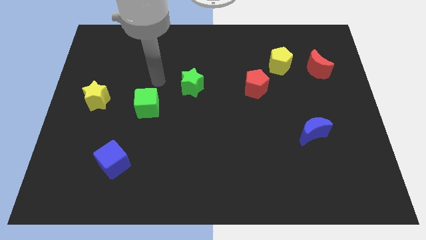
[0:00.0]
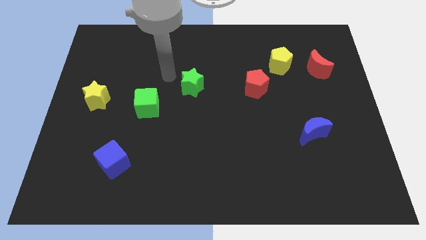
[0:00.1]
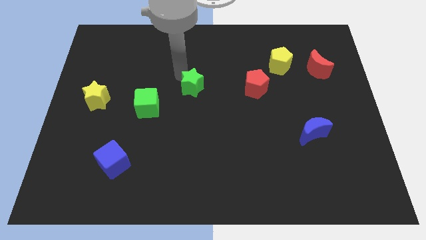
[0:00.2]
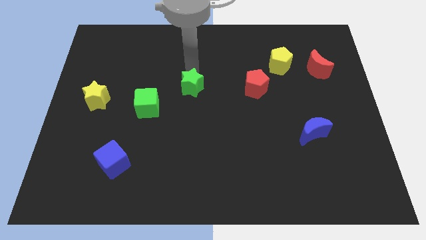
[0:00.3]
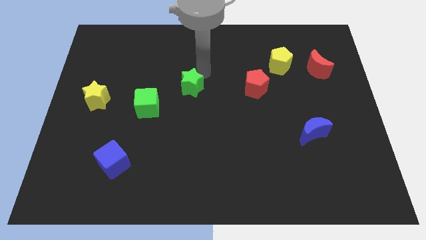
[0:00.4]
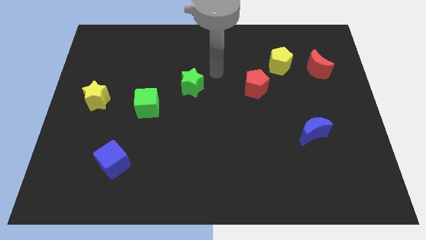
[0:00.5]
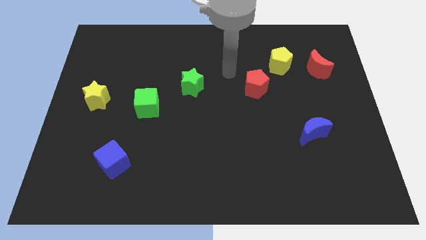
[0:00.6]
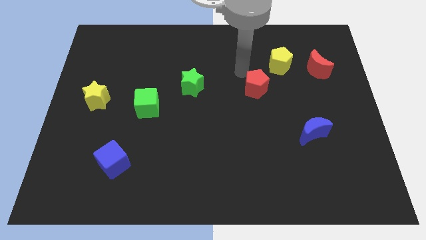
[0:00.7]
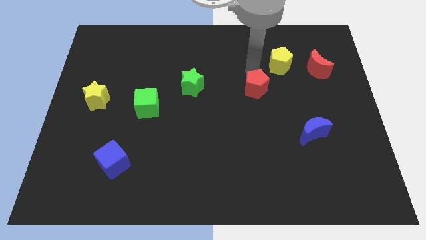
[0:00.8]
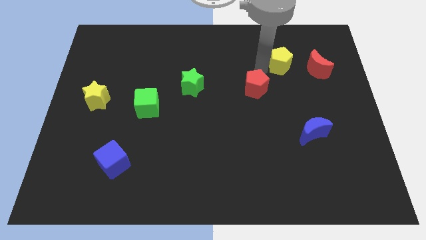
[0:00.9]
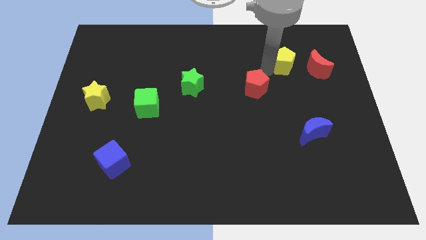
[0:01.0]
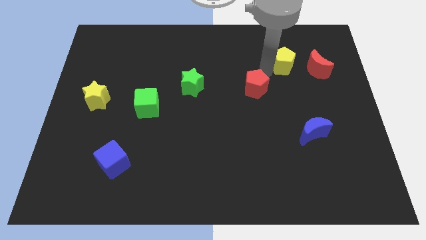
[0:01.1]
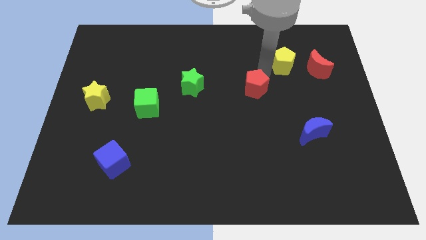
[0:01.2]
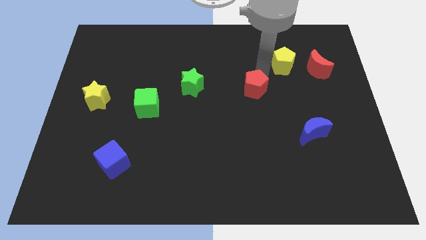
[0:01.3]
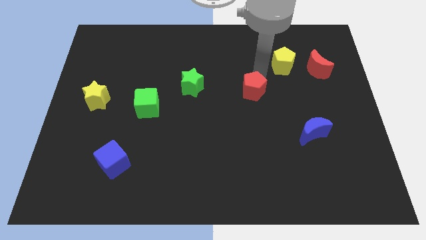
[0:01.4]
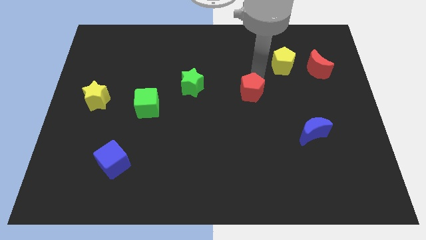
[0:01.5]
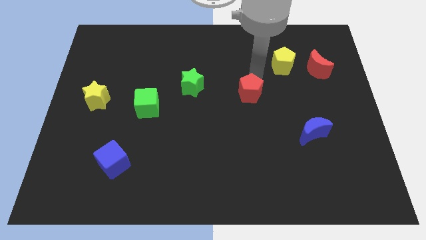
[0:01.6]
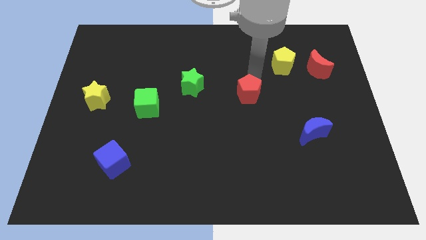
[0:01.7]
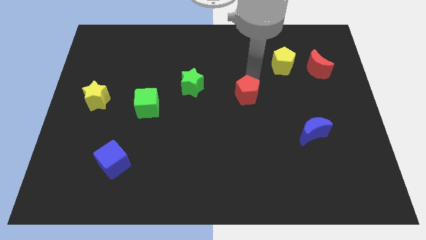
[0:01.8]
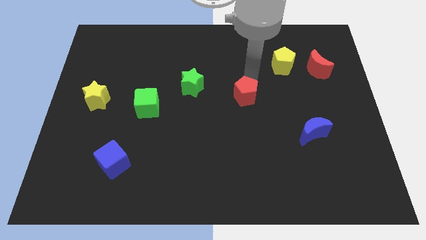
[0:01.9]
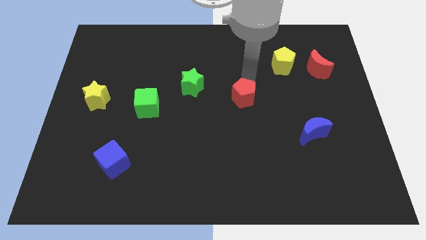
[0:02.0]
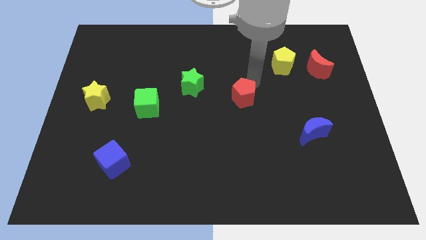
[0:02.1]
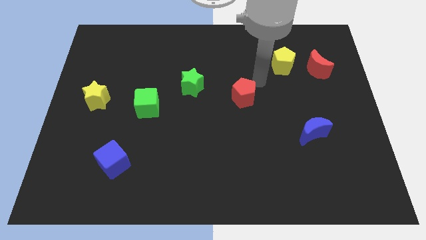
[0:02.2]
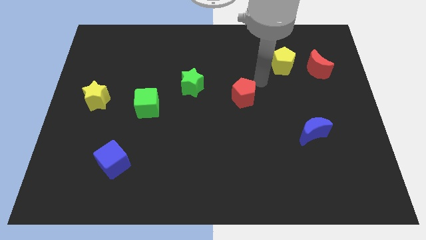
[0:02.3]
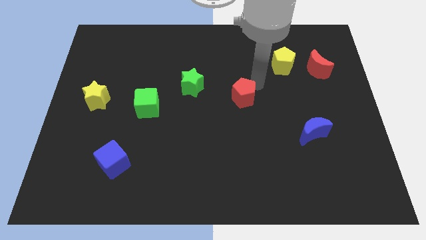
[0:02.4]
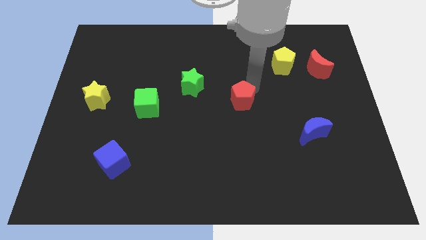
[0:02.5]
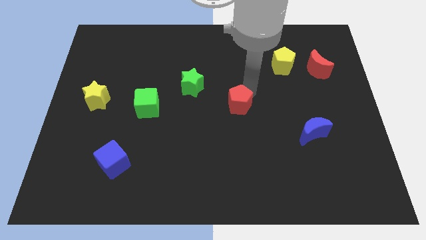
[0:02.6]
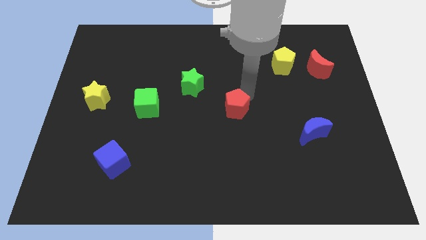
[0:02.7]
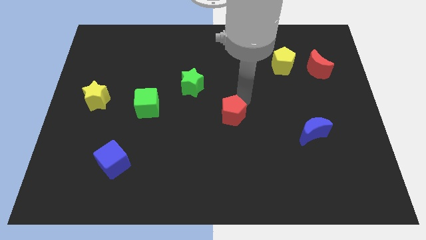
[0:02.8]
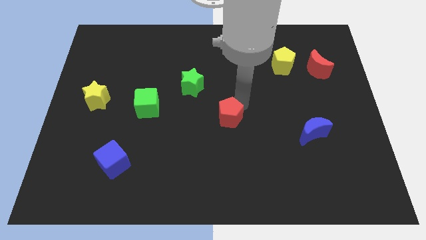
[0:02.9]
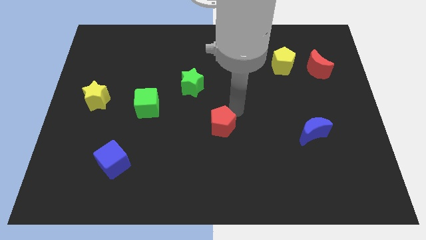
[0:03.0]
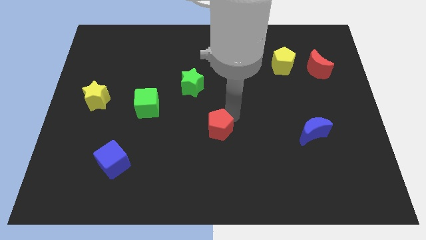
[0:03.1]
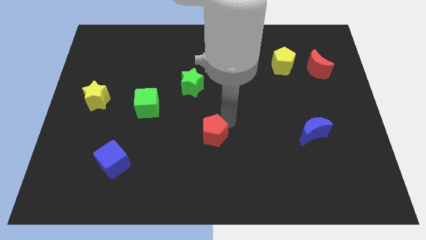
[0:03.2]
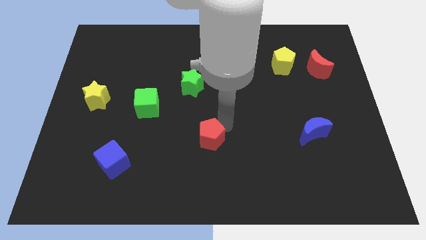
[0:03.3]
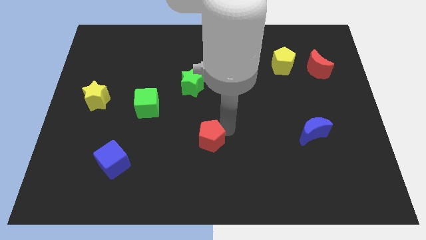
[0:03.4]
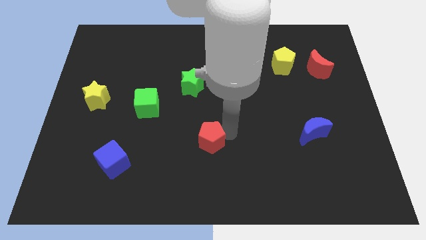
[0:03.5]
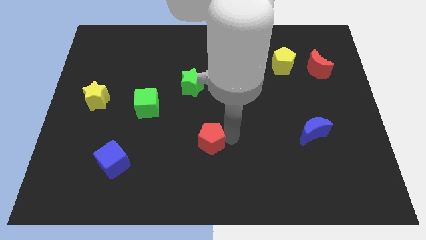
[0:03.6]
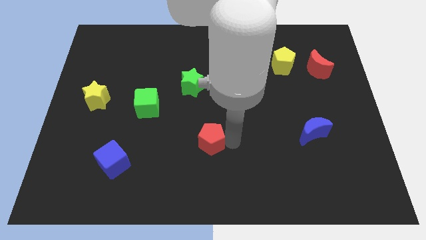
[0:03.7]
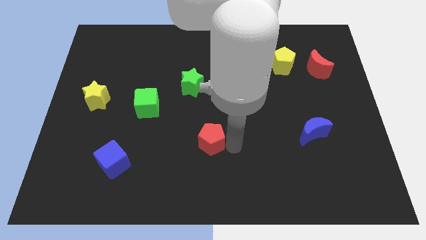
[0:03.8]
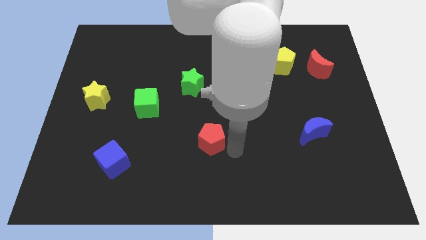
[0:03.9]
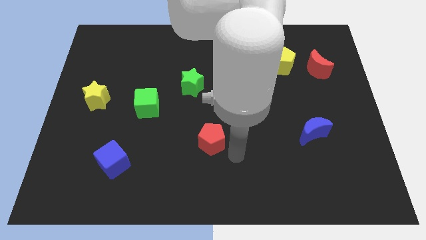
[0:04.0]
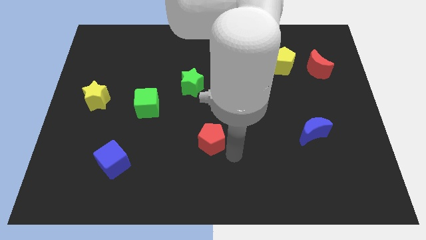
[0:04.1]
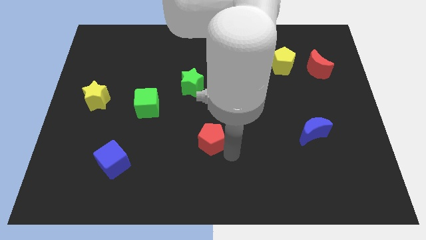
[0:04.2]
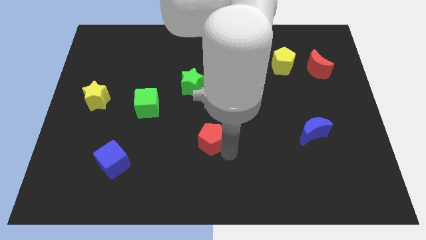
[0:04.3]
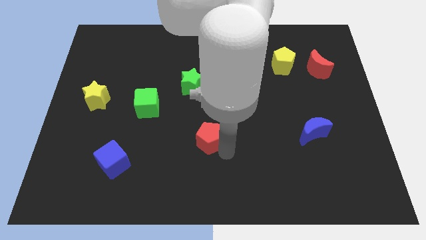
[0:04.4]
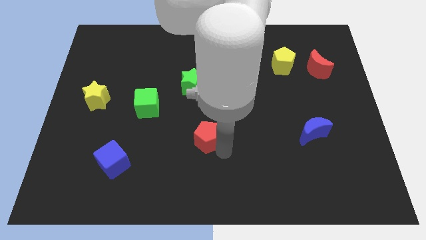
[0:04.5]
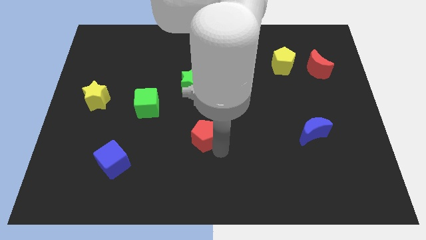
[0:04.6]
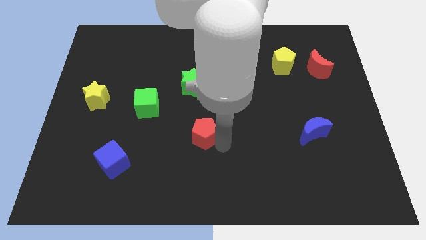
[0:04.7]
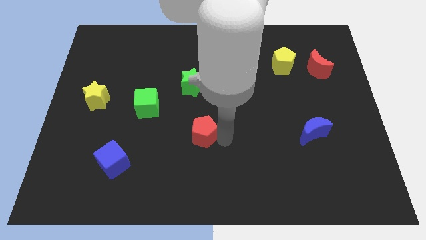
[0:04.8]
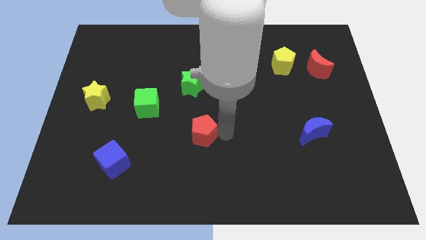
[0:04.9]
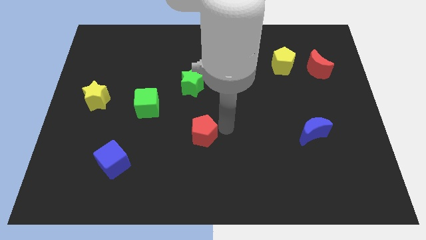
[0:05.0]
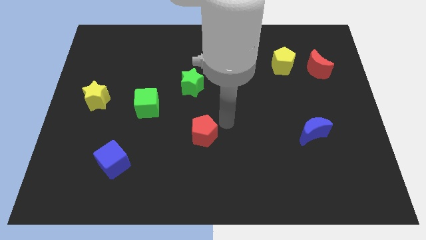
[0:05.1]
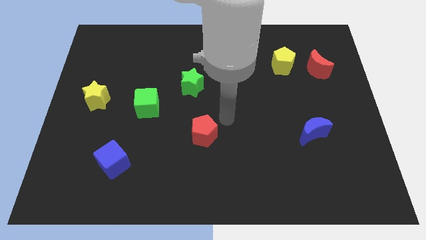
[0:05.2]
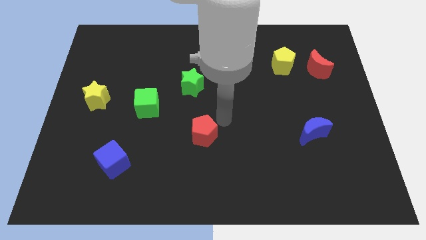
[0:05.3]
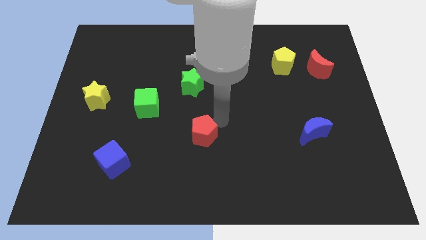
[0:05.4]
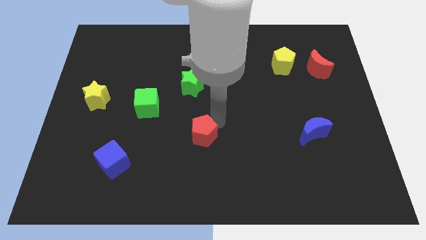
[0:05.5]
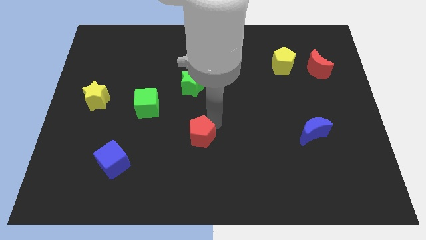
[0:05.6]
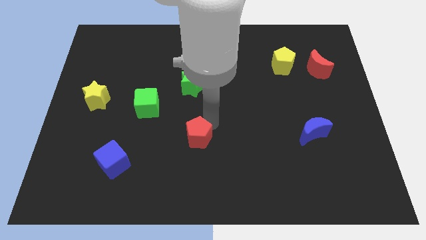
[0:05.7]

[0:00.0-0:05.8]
push the red pentagon down and then to the left

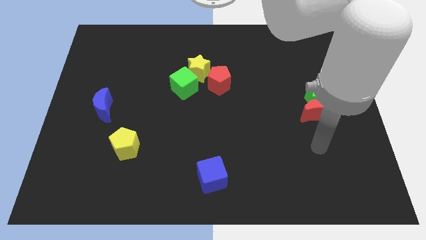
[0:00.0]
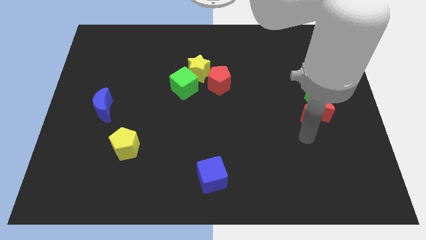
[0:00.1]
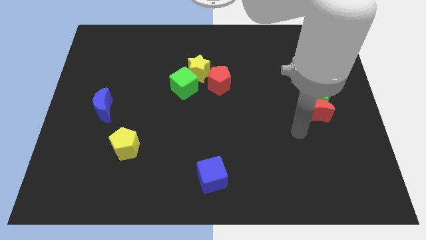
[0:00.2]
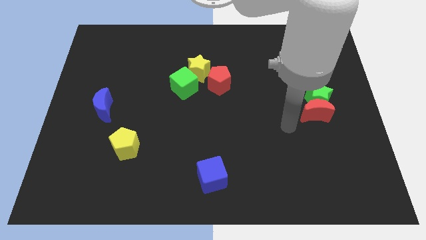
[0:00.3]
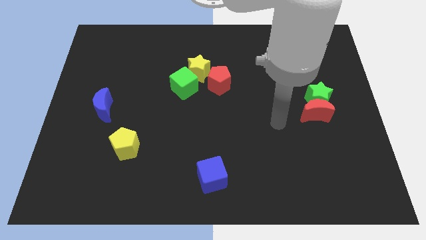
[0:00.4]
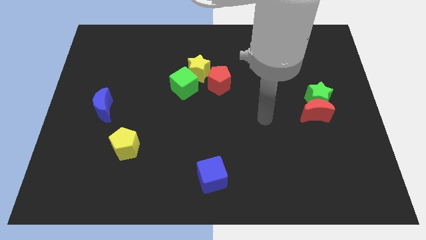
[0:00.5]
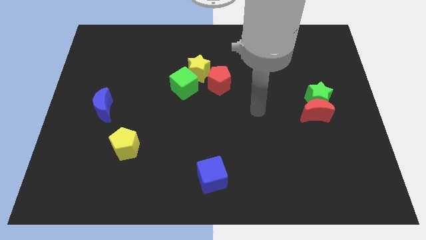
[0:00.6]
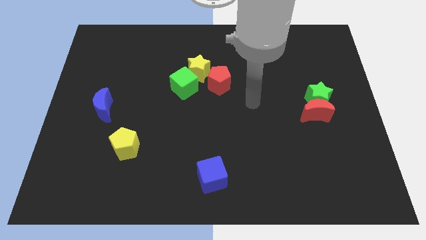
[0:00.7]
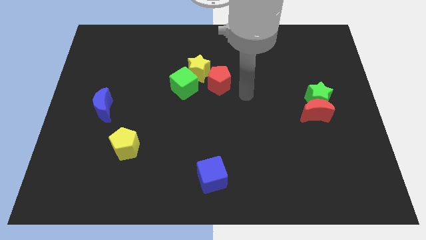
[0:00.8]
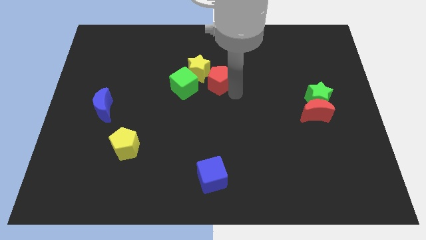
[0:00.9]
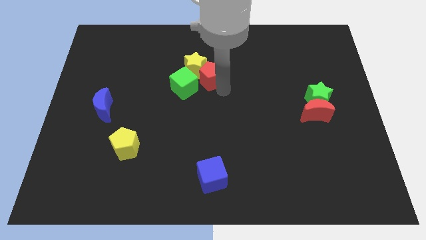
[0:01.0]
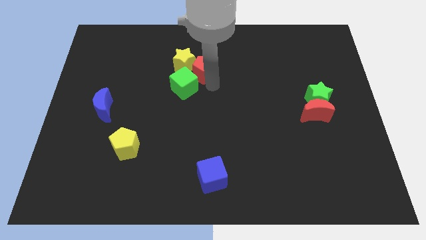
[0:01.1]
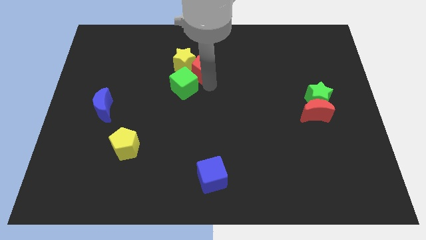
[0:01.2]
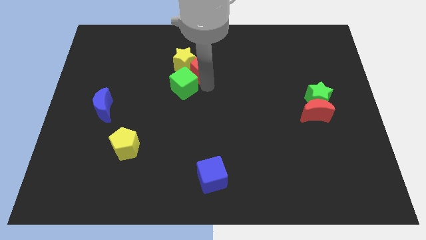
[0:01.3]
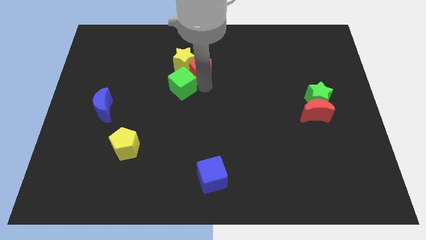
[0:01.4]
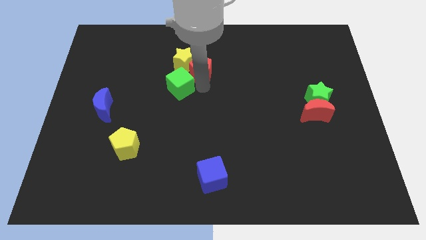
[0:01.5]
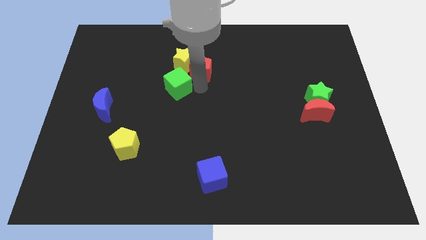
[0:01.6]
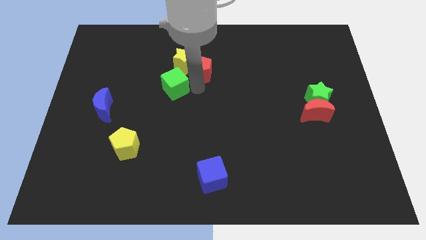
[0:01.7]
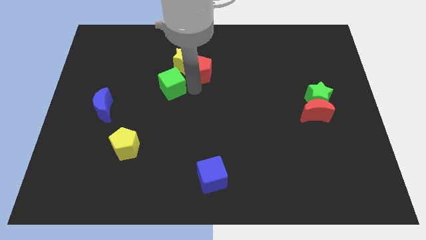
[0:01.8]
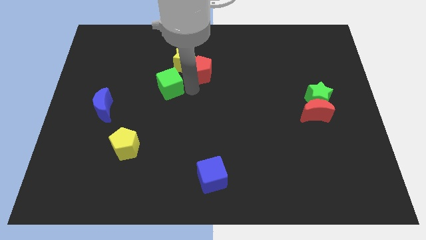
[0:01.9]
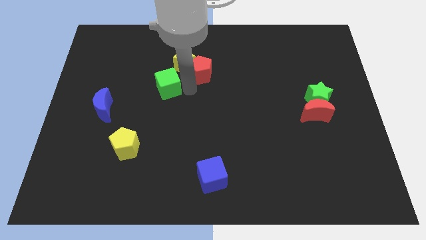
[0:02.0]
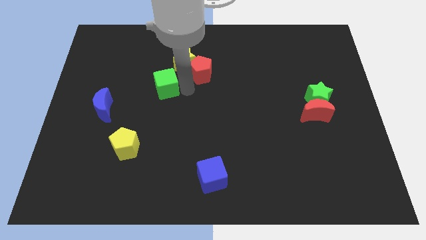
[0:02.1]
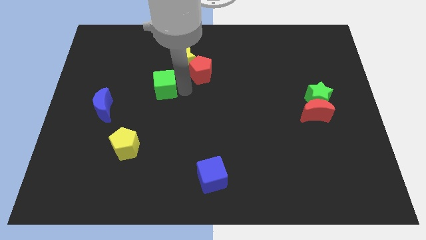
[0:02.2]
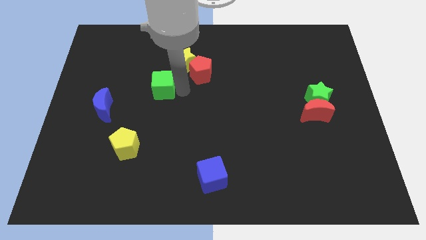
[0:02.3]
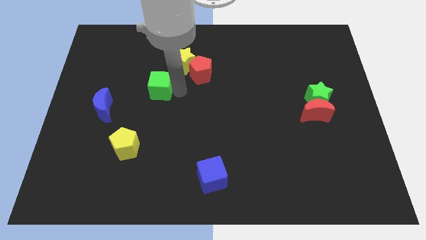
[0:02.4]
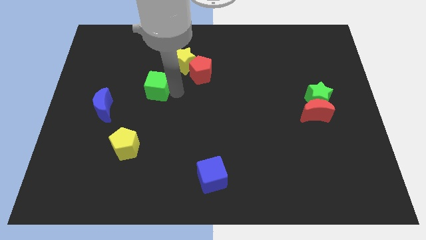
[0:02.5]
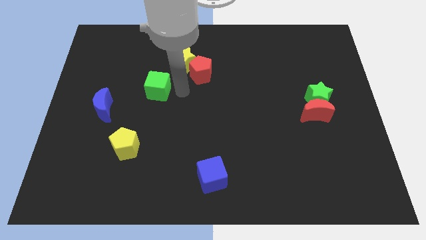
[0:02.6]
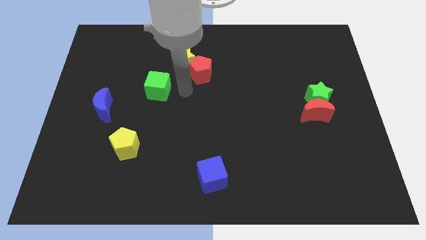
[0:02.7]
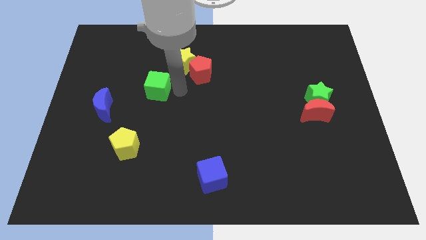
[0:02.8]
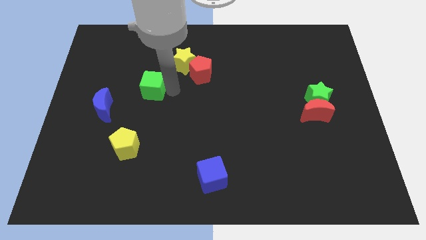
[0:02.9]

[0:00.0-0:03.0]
slightly push the green cube to the left
